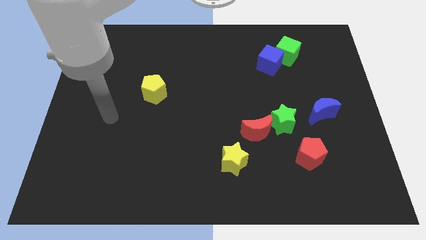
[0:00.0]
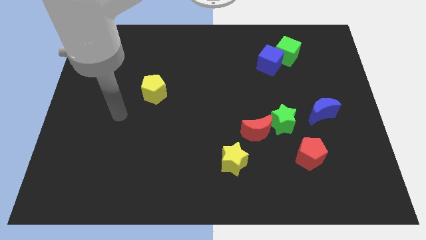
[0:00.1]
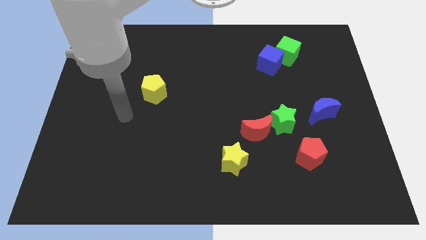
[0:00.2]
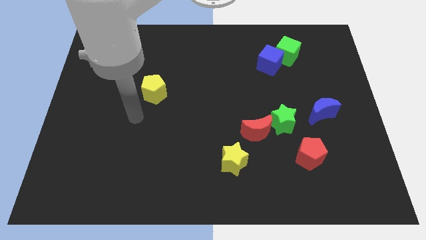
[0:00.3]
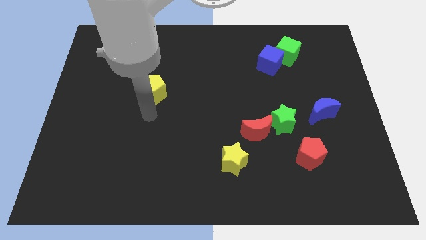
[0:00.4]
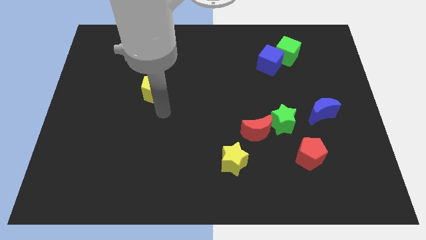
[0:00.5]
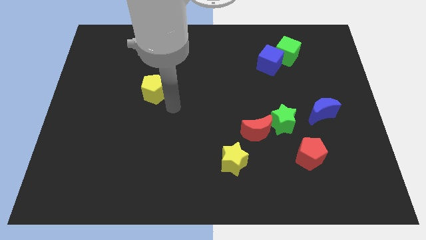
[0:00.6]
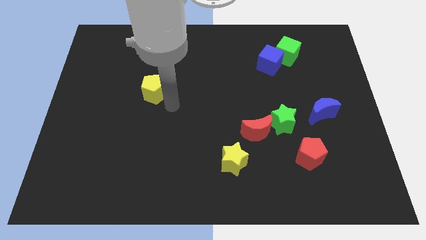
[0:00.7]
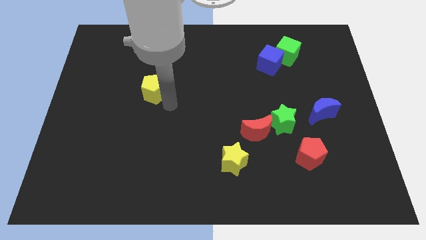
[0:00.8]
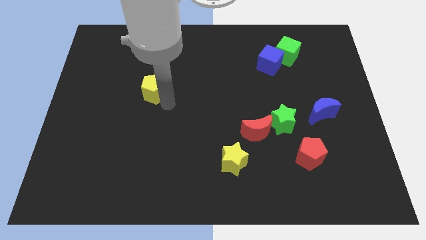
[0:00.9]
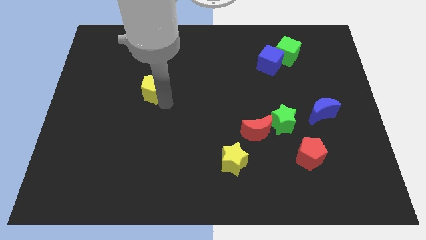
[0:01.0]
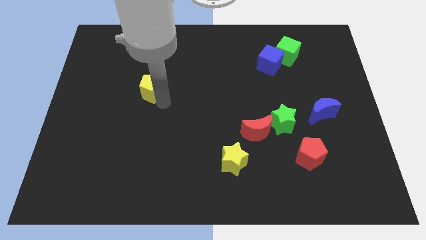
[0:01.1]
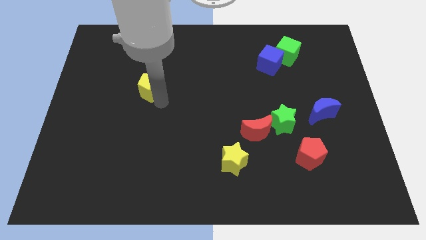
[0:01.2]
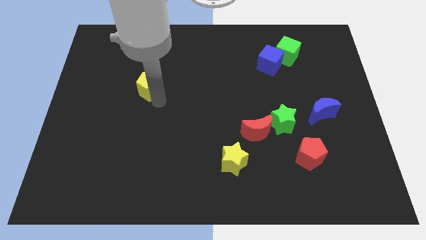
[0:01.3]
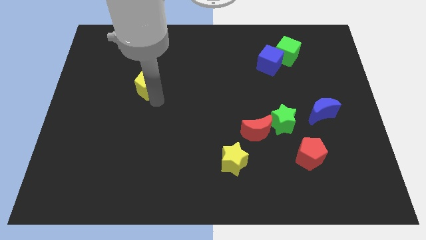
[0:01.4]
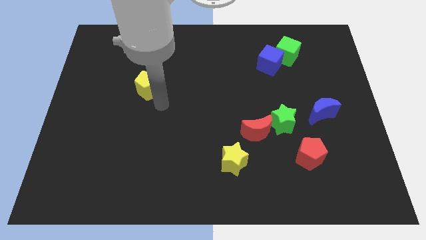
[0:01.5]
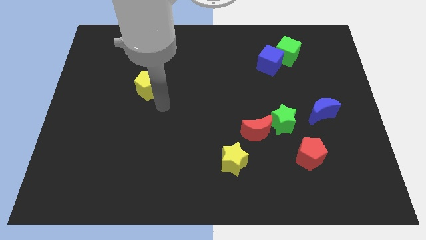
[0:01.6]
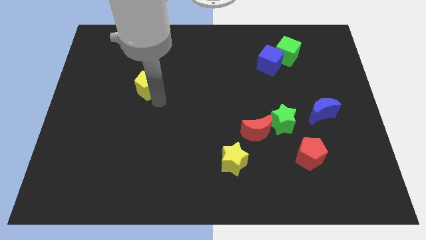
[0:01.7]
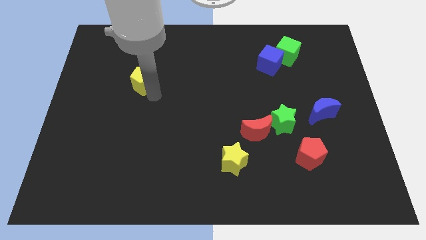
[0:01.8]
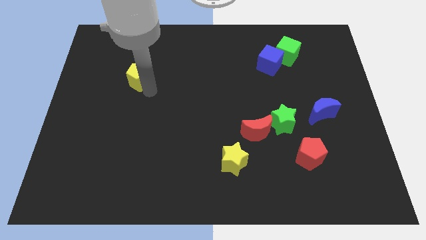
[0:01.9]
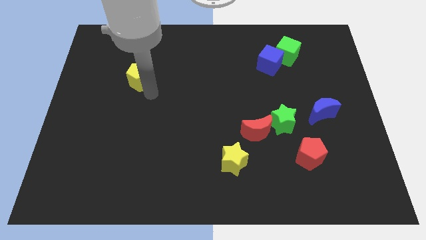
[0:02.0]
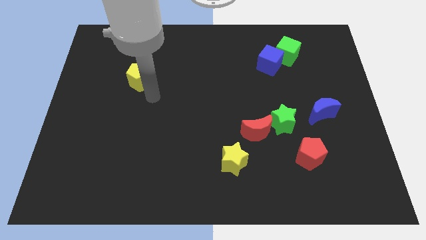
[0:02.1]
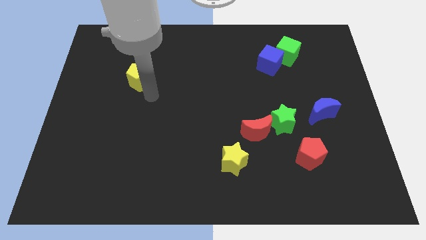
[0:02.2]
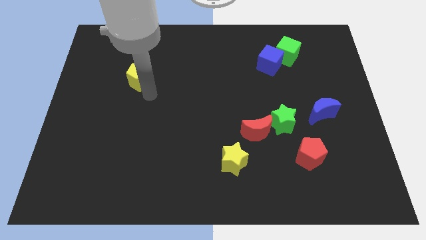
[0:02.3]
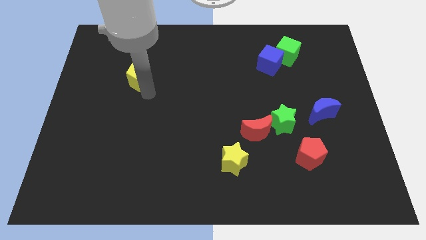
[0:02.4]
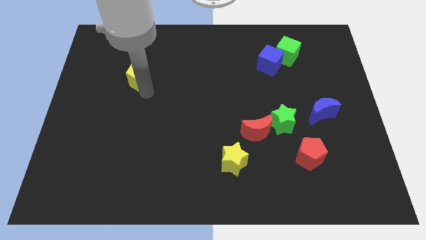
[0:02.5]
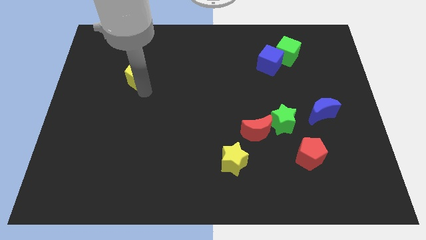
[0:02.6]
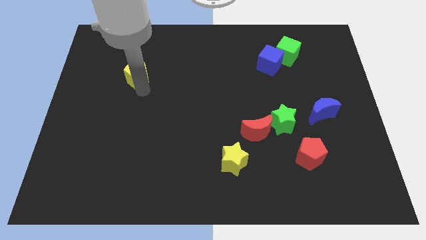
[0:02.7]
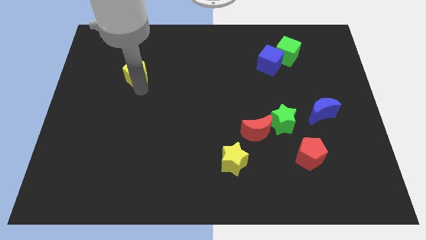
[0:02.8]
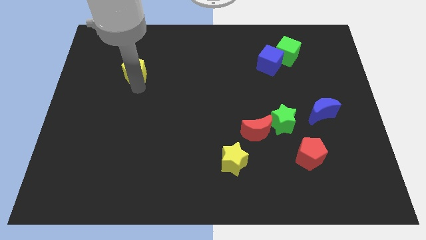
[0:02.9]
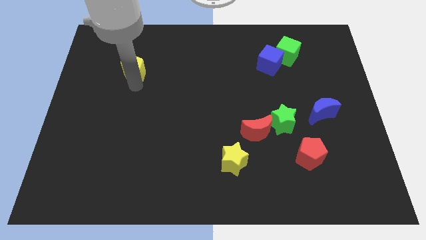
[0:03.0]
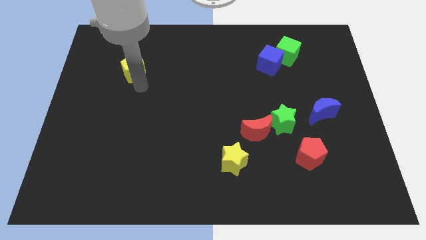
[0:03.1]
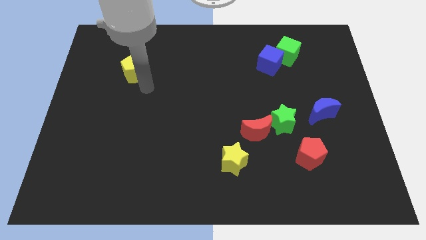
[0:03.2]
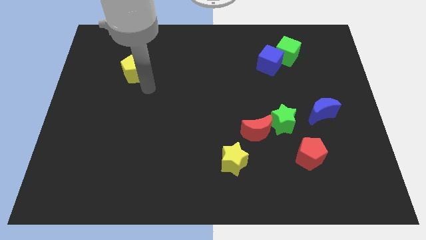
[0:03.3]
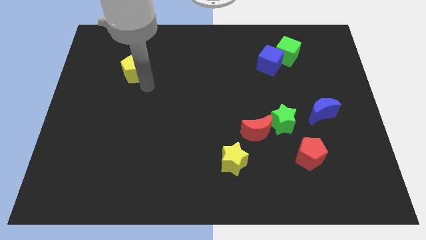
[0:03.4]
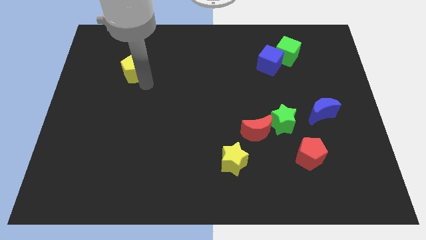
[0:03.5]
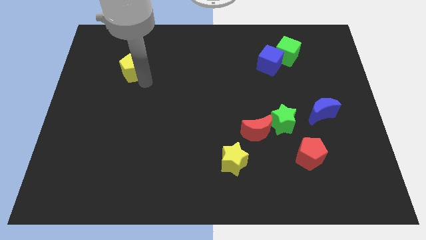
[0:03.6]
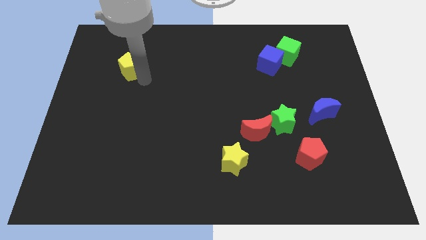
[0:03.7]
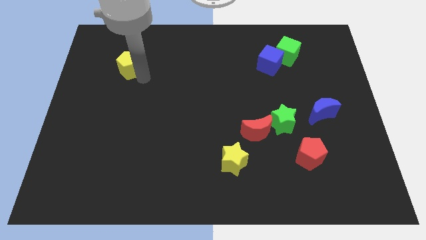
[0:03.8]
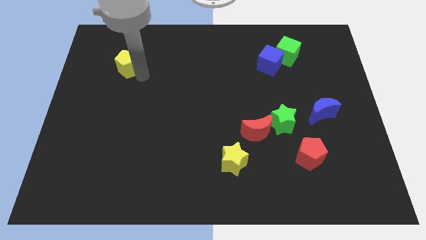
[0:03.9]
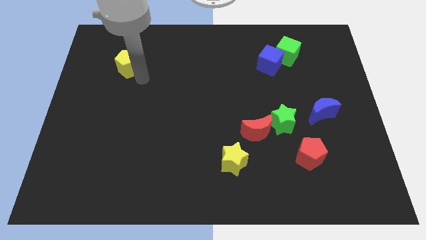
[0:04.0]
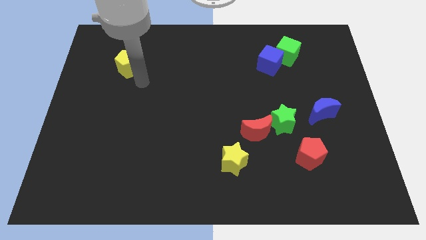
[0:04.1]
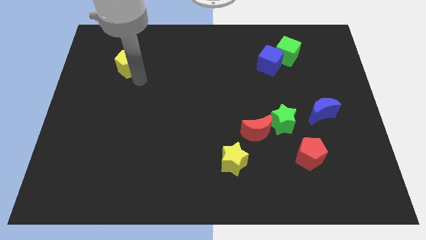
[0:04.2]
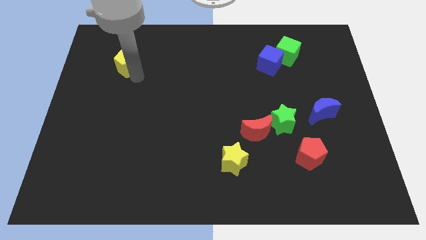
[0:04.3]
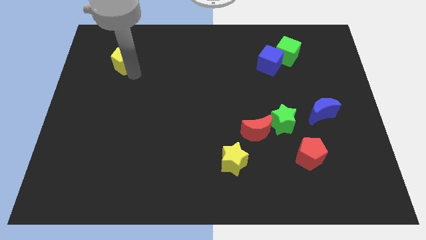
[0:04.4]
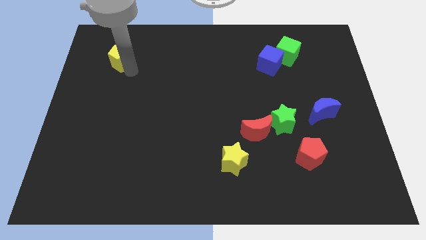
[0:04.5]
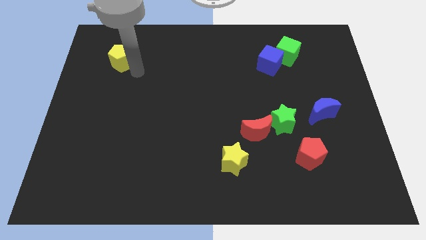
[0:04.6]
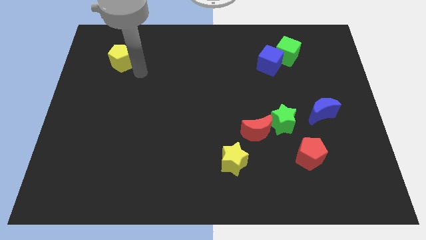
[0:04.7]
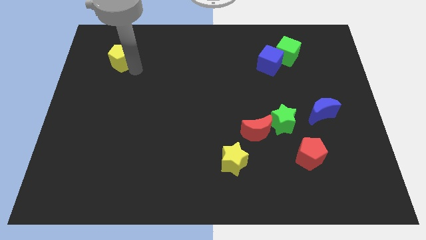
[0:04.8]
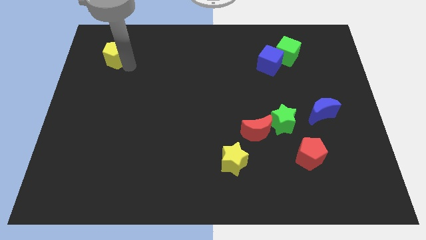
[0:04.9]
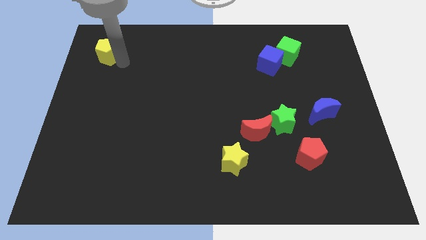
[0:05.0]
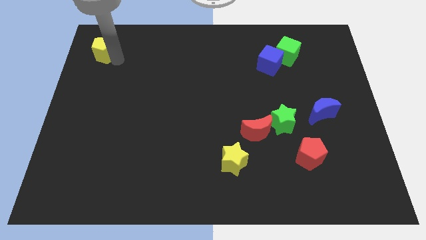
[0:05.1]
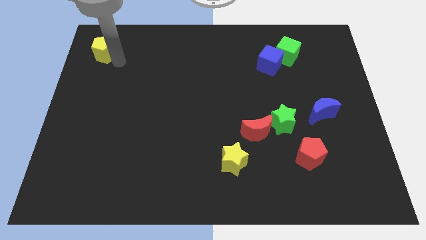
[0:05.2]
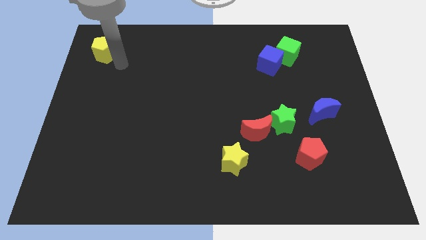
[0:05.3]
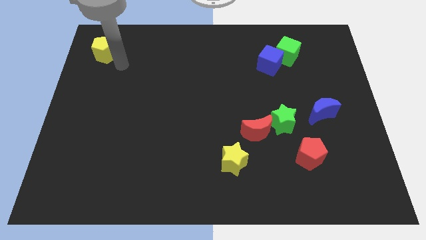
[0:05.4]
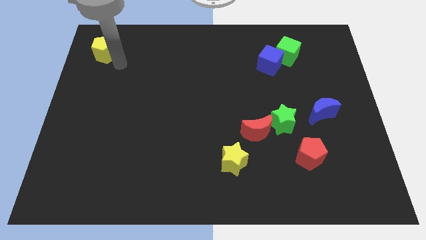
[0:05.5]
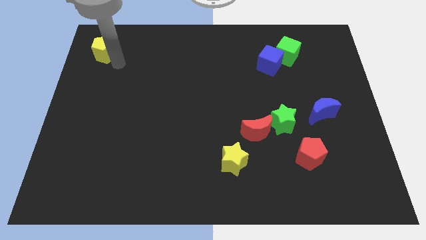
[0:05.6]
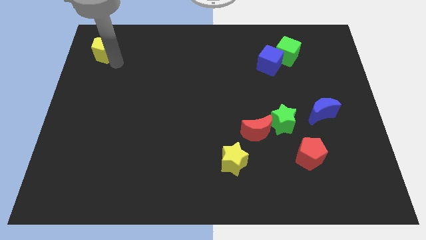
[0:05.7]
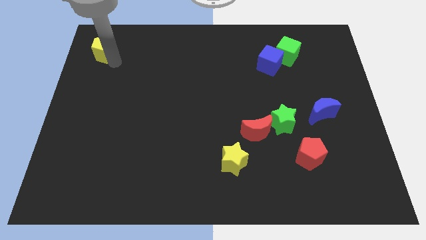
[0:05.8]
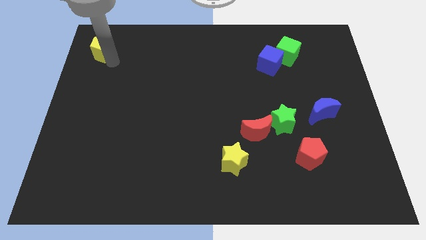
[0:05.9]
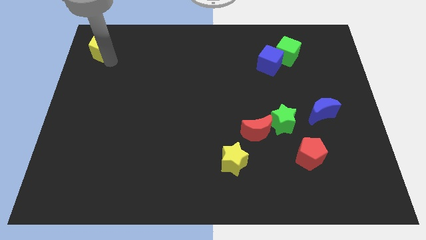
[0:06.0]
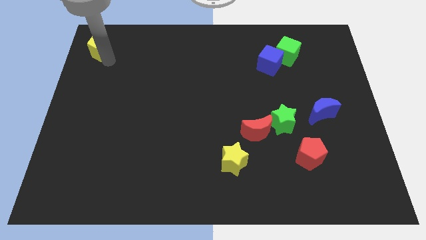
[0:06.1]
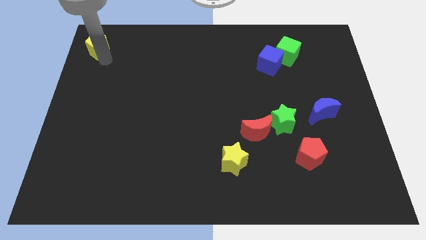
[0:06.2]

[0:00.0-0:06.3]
slide the yellow pentagon to the top left corner
